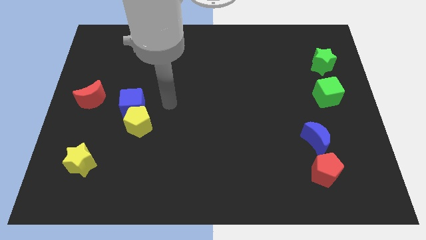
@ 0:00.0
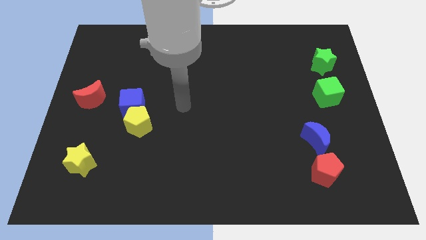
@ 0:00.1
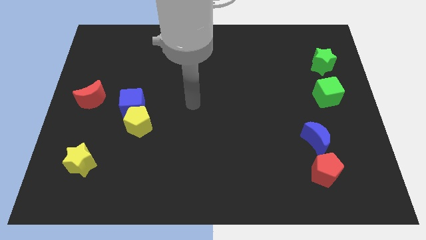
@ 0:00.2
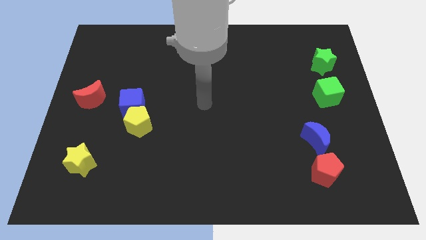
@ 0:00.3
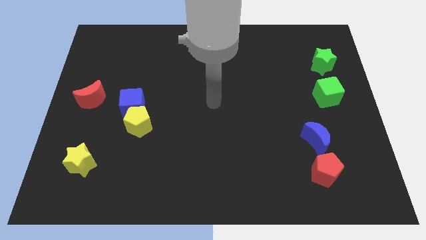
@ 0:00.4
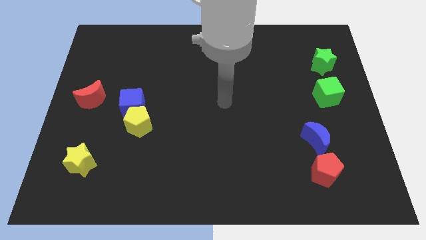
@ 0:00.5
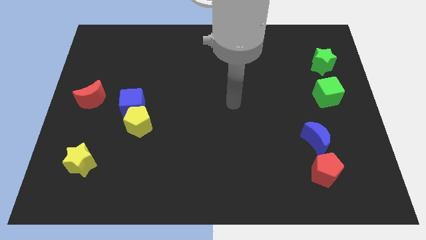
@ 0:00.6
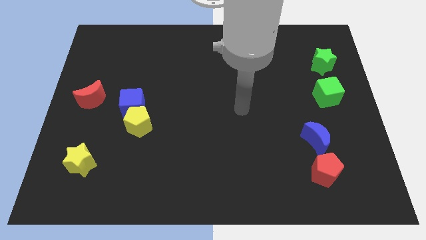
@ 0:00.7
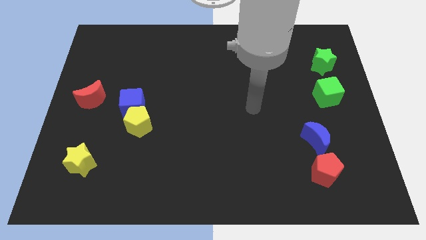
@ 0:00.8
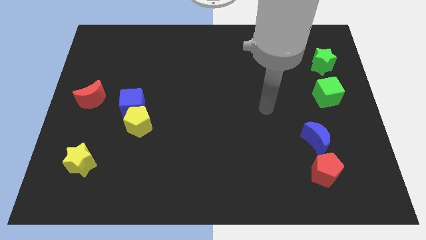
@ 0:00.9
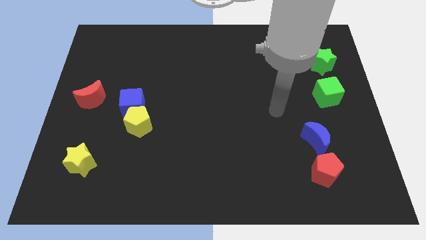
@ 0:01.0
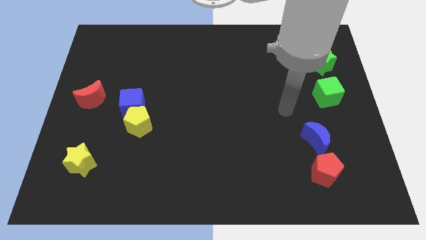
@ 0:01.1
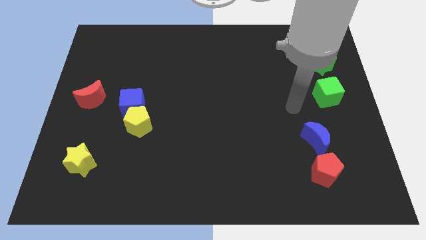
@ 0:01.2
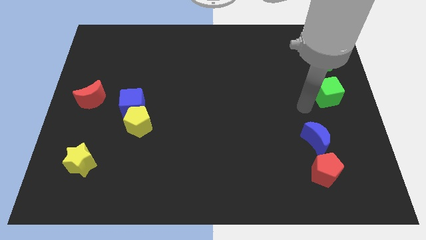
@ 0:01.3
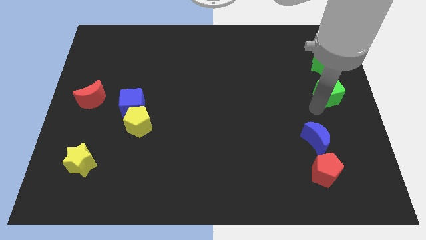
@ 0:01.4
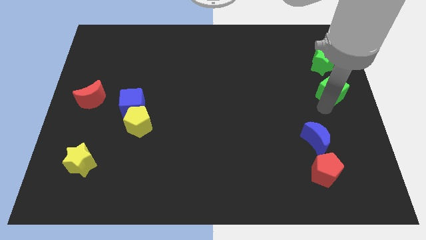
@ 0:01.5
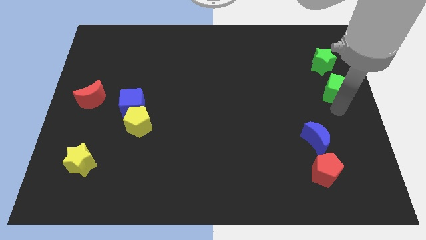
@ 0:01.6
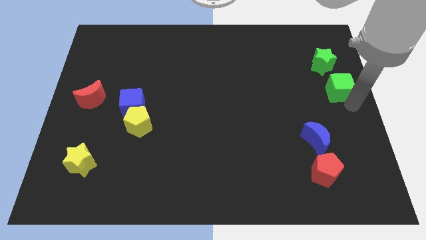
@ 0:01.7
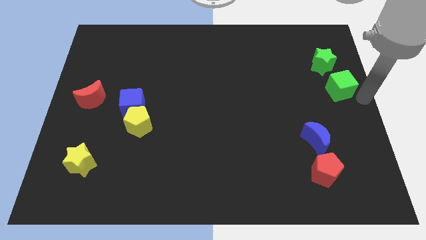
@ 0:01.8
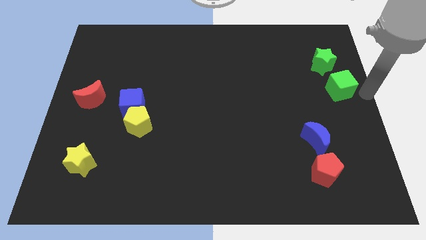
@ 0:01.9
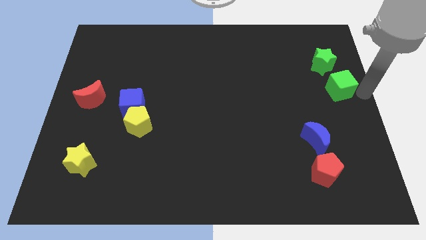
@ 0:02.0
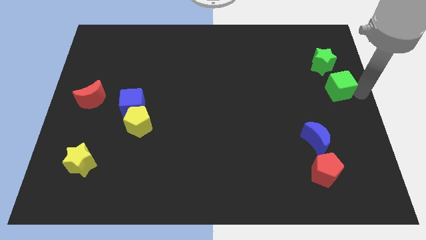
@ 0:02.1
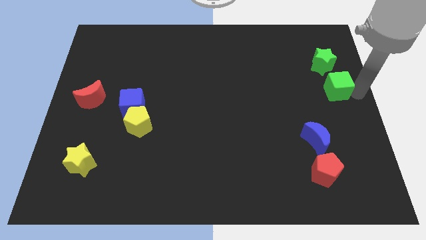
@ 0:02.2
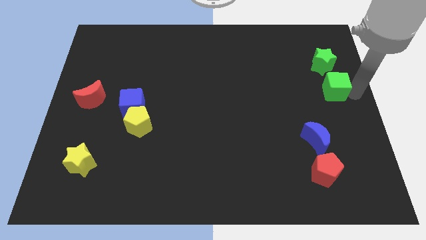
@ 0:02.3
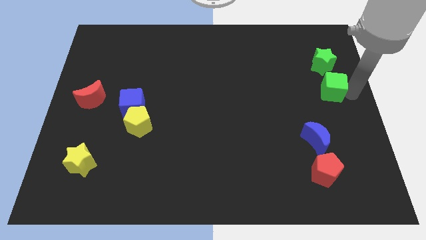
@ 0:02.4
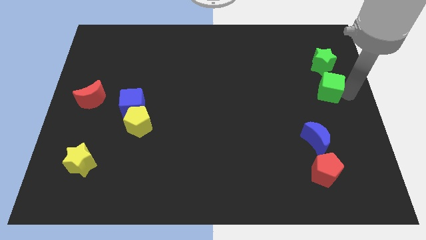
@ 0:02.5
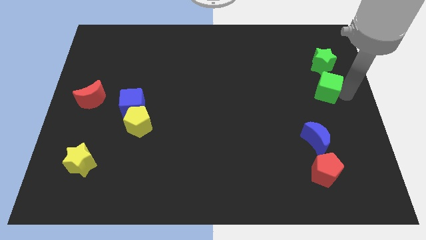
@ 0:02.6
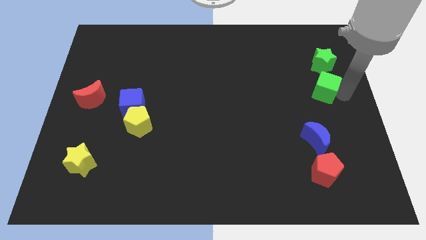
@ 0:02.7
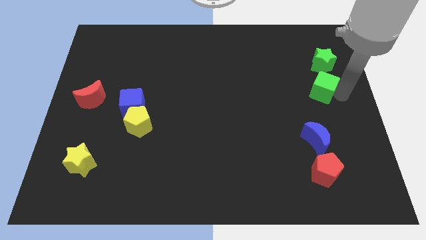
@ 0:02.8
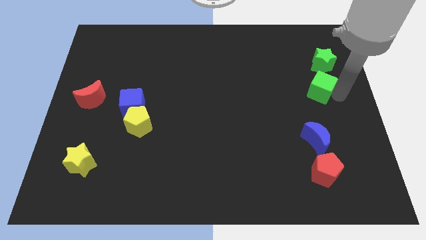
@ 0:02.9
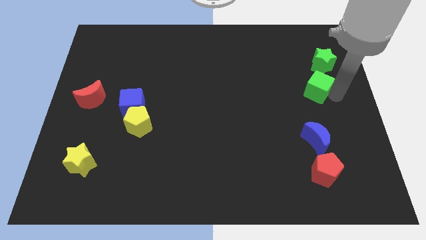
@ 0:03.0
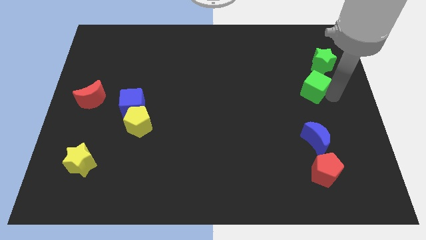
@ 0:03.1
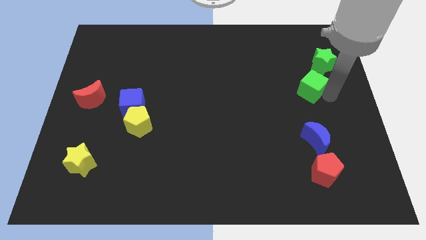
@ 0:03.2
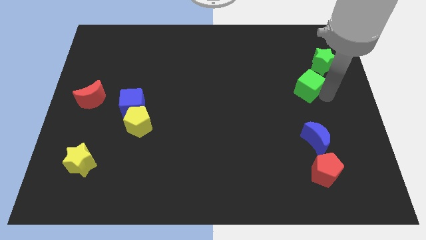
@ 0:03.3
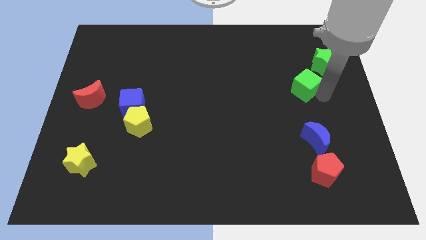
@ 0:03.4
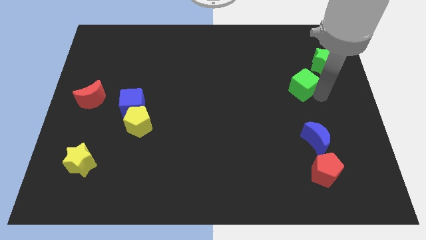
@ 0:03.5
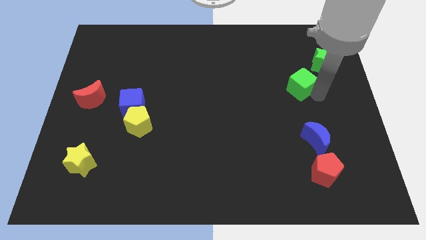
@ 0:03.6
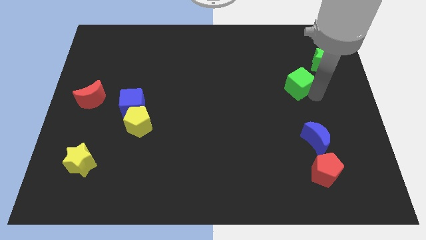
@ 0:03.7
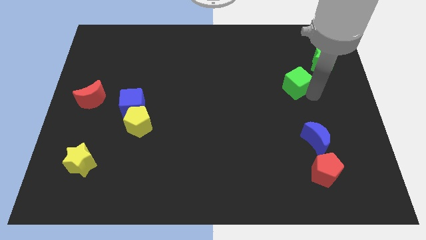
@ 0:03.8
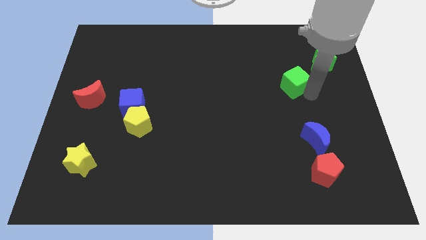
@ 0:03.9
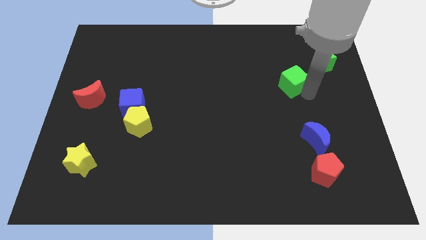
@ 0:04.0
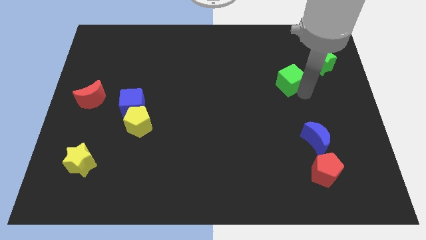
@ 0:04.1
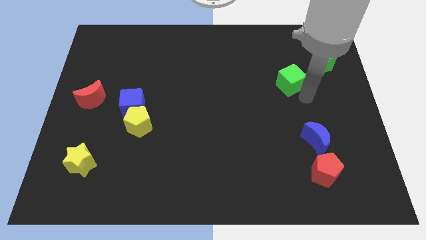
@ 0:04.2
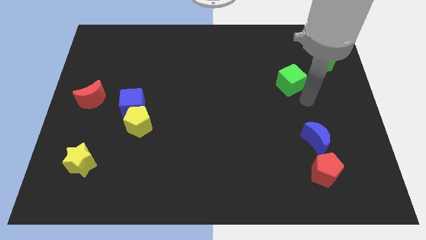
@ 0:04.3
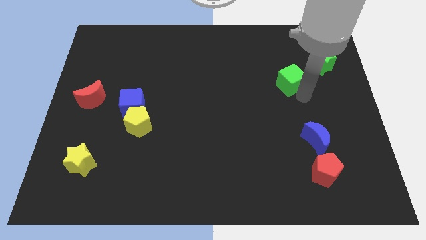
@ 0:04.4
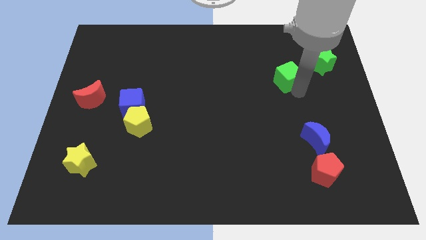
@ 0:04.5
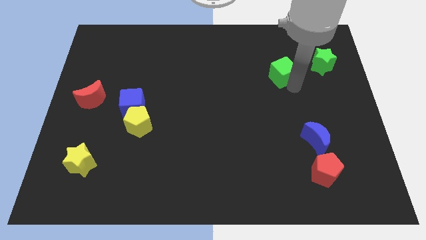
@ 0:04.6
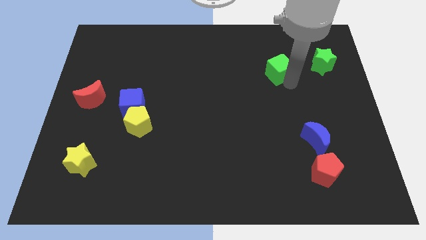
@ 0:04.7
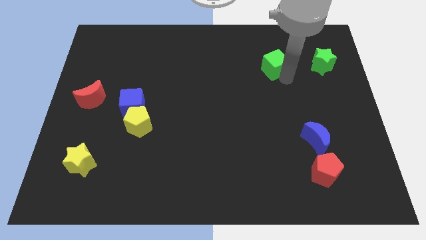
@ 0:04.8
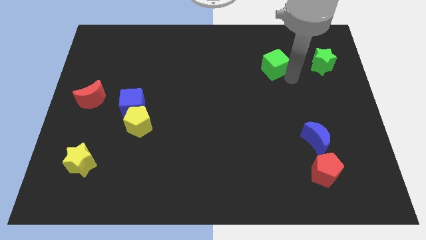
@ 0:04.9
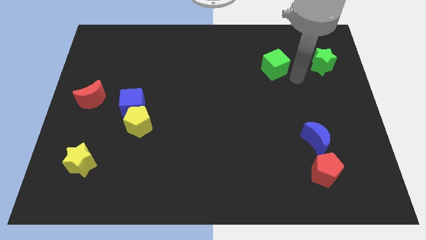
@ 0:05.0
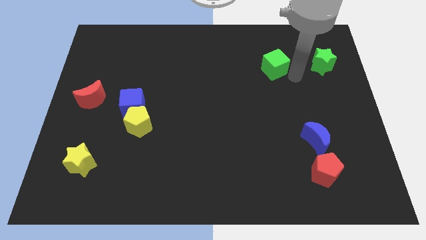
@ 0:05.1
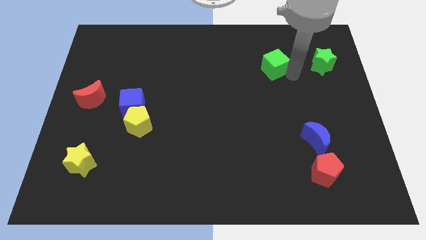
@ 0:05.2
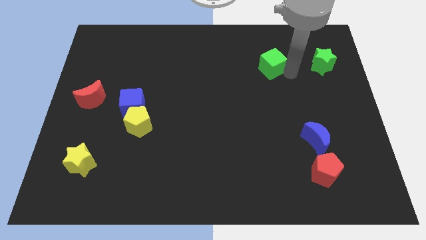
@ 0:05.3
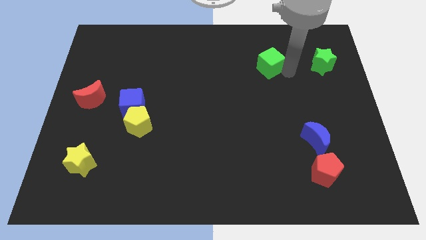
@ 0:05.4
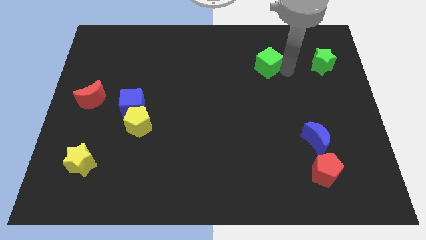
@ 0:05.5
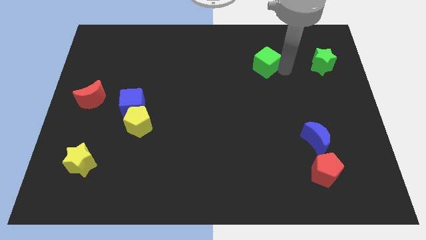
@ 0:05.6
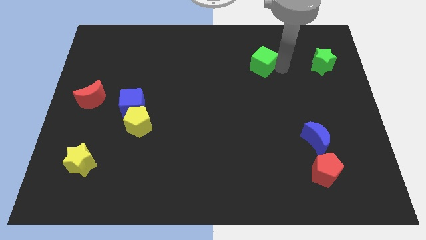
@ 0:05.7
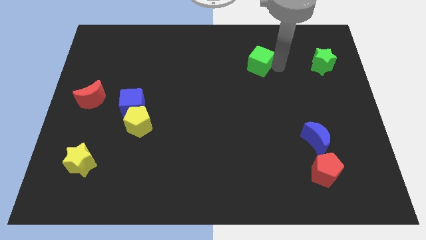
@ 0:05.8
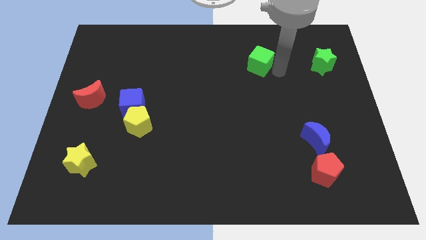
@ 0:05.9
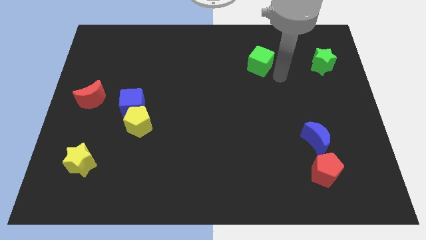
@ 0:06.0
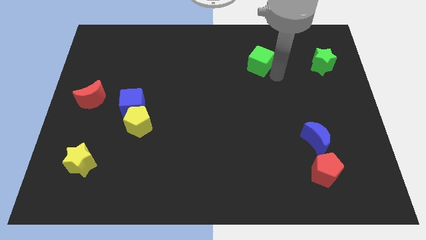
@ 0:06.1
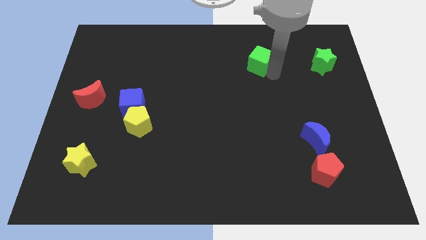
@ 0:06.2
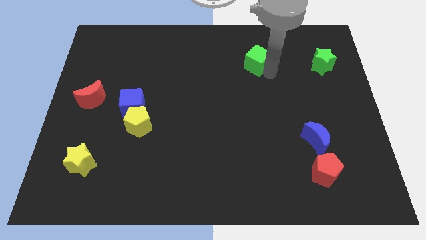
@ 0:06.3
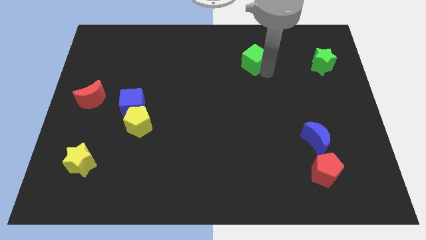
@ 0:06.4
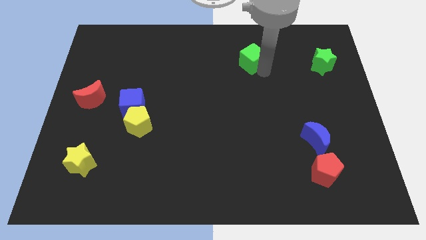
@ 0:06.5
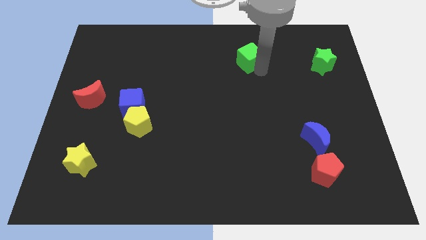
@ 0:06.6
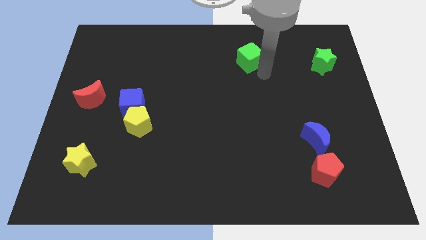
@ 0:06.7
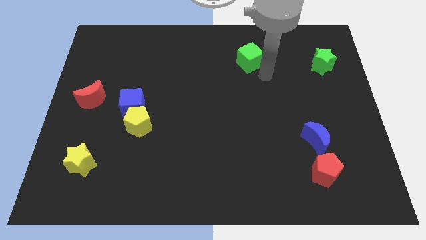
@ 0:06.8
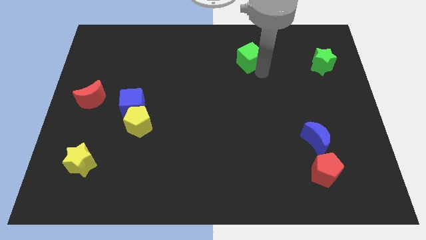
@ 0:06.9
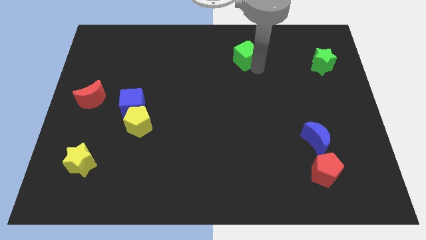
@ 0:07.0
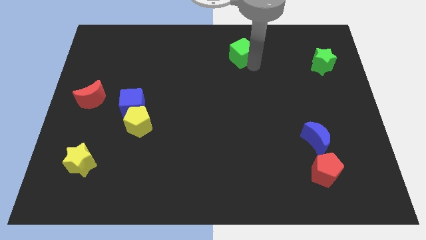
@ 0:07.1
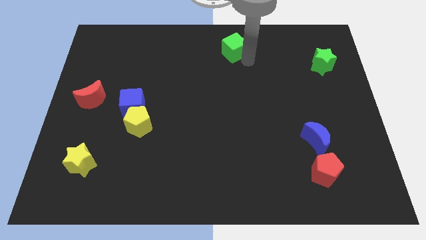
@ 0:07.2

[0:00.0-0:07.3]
push the green cube to the top
